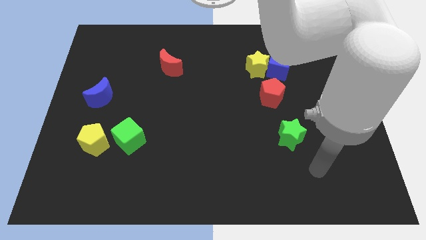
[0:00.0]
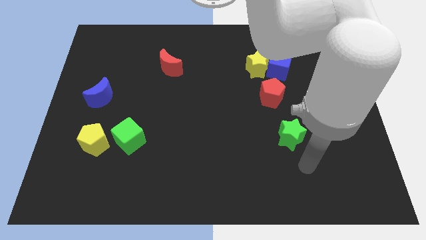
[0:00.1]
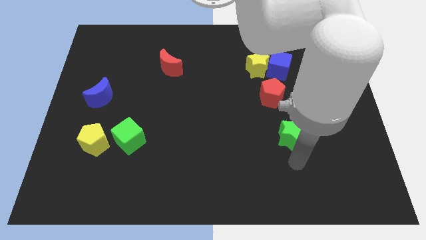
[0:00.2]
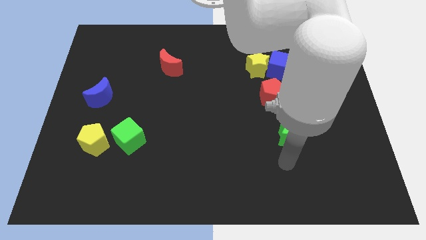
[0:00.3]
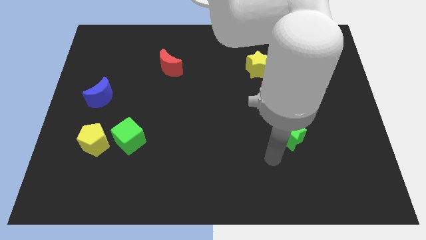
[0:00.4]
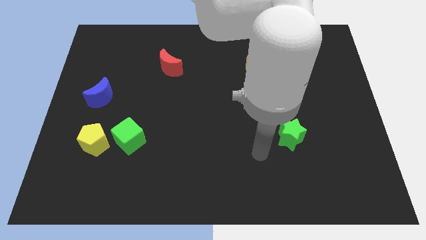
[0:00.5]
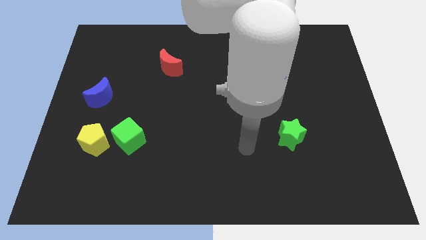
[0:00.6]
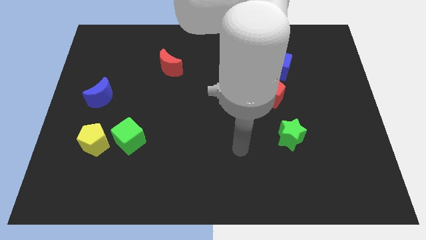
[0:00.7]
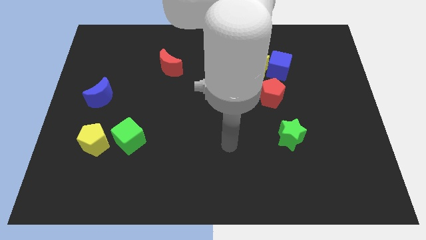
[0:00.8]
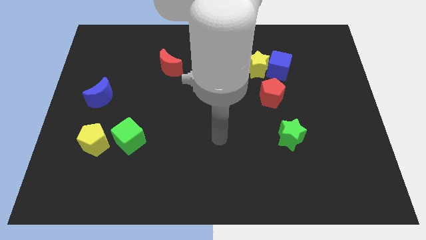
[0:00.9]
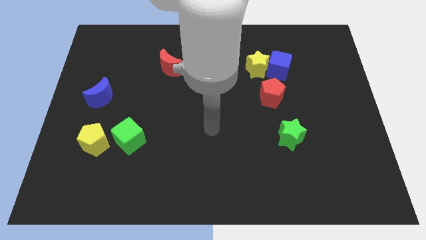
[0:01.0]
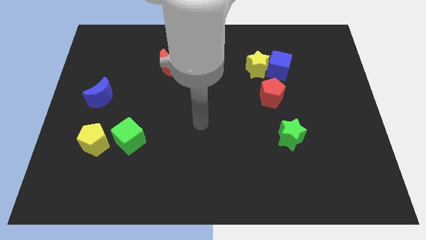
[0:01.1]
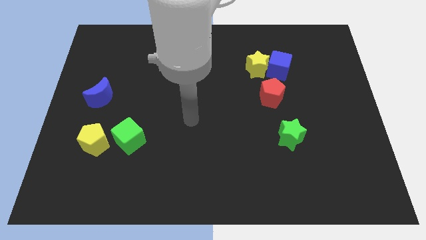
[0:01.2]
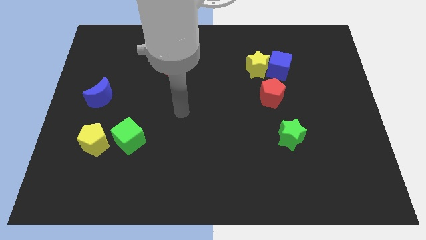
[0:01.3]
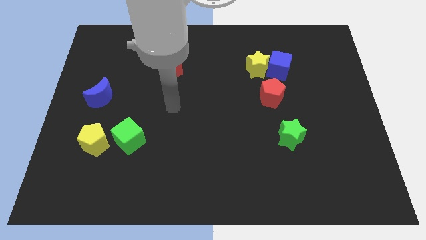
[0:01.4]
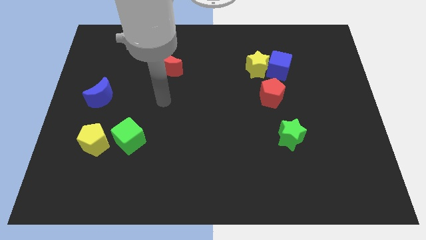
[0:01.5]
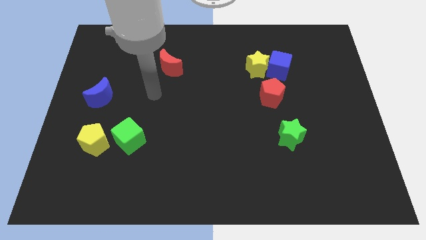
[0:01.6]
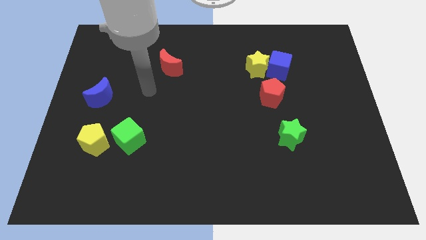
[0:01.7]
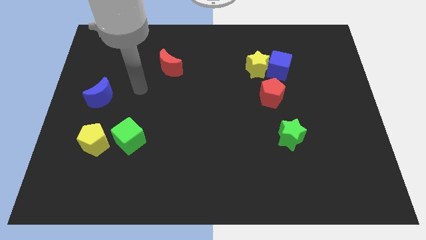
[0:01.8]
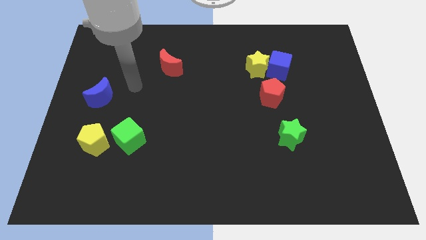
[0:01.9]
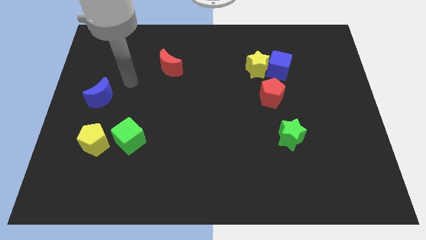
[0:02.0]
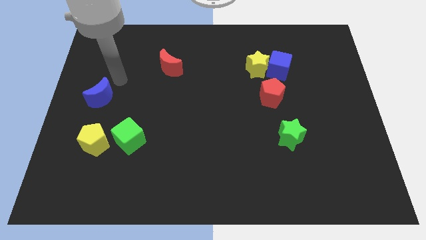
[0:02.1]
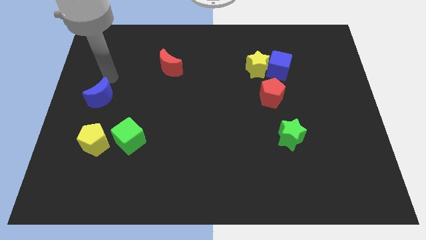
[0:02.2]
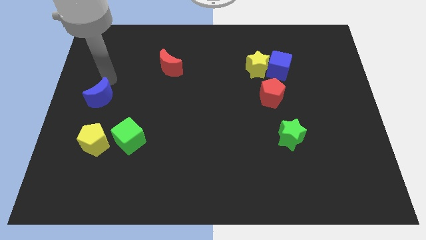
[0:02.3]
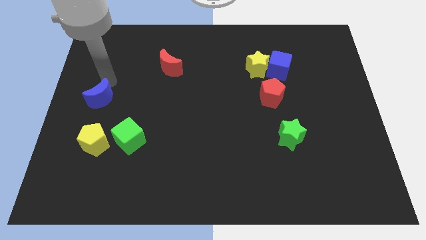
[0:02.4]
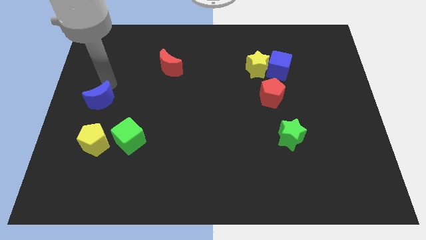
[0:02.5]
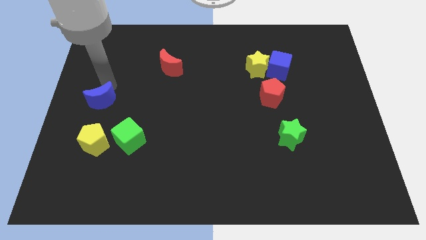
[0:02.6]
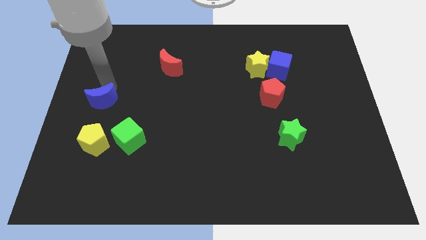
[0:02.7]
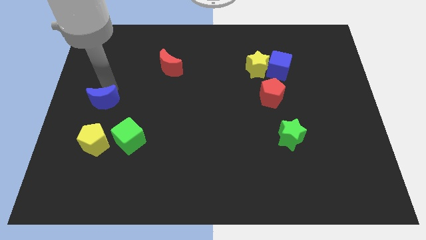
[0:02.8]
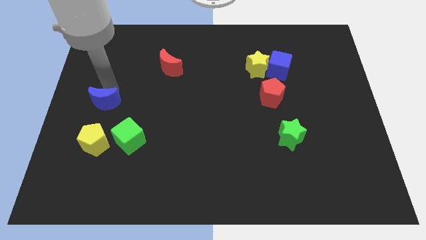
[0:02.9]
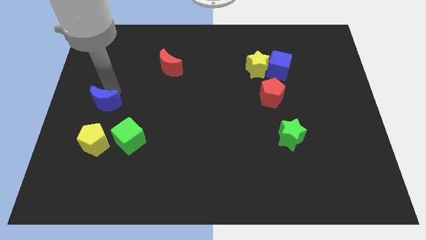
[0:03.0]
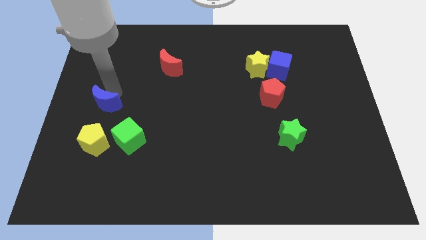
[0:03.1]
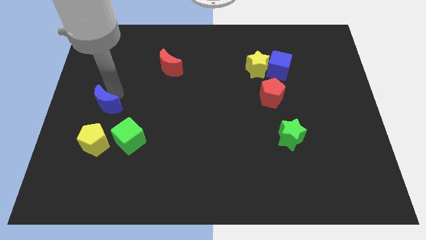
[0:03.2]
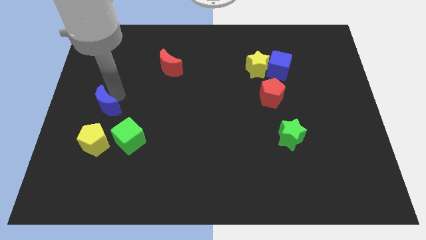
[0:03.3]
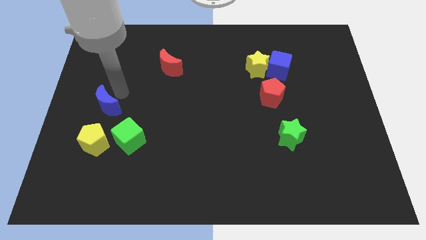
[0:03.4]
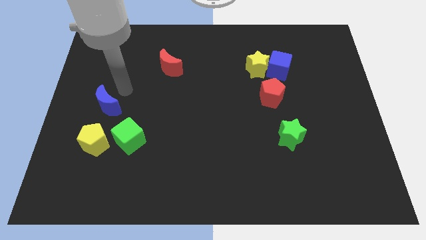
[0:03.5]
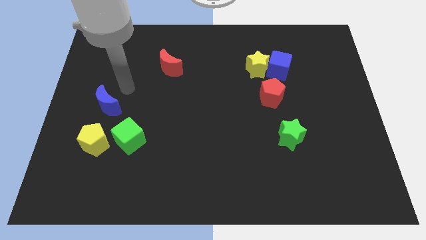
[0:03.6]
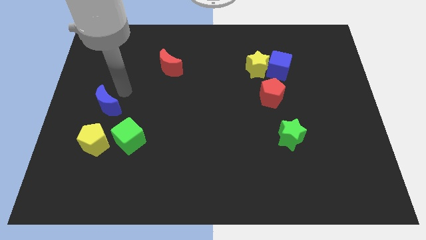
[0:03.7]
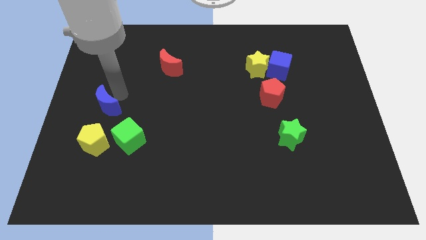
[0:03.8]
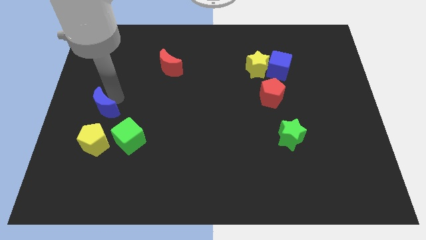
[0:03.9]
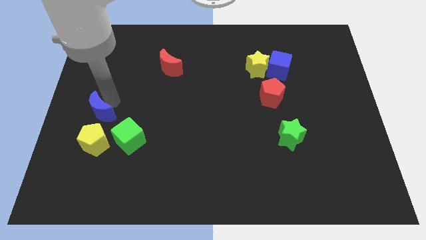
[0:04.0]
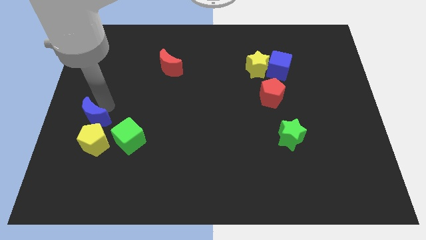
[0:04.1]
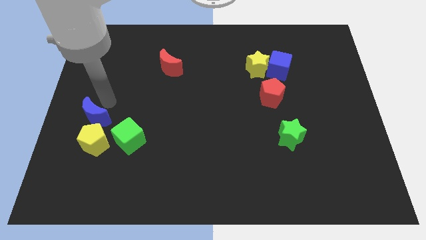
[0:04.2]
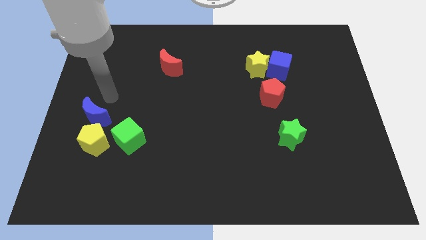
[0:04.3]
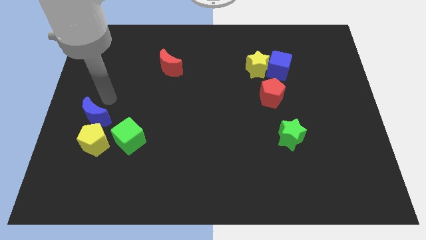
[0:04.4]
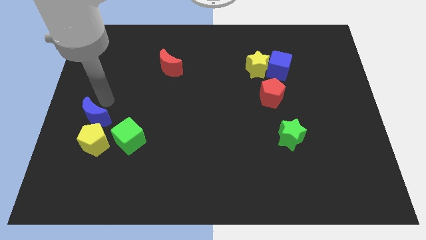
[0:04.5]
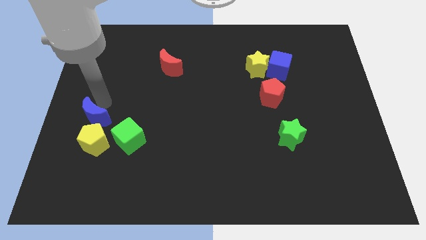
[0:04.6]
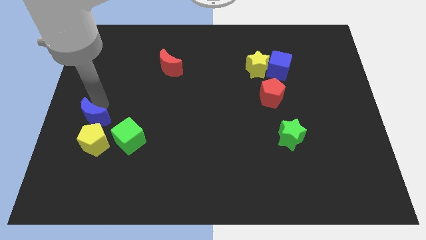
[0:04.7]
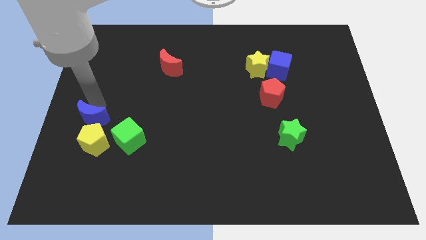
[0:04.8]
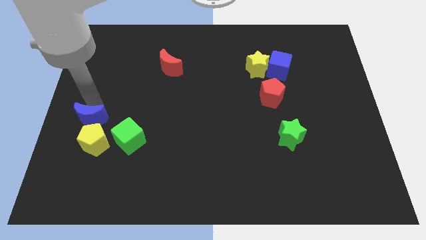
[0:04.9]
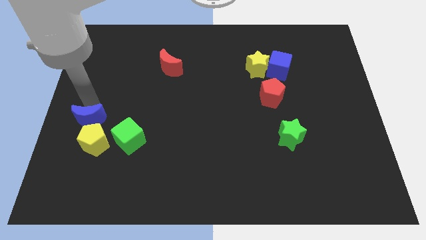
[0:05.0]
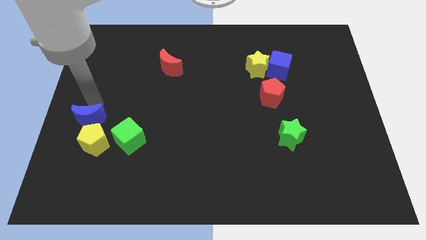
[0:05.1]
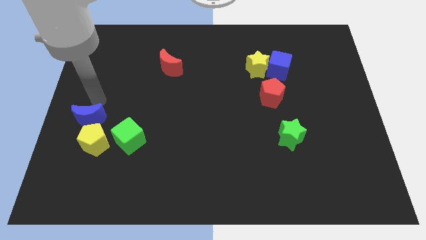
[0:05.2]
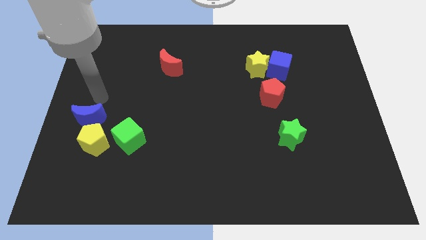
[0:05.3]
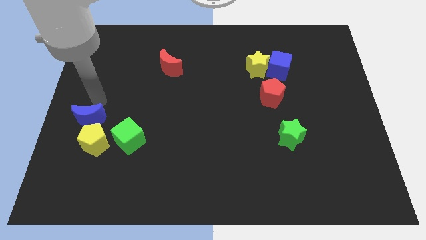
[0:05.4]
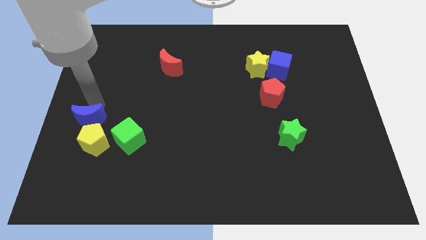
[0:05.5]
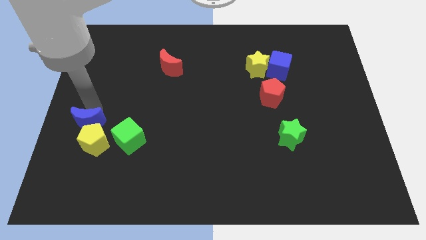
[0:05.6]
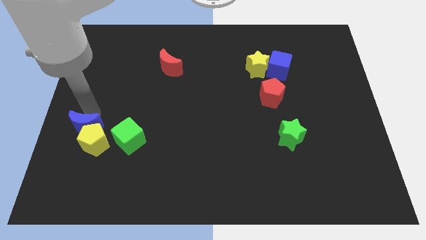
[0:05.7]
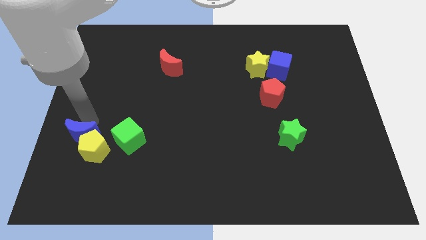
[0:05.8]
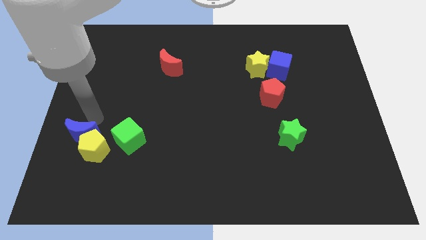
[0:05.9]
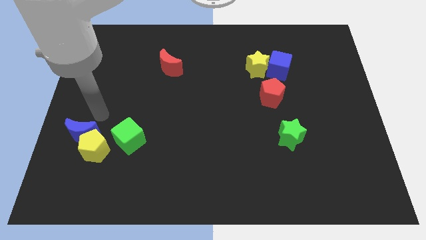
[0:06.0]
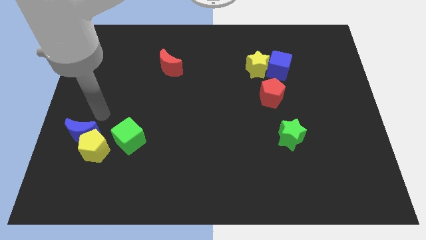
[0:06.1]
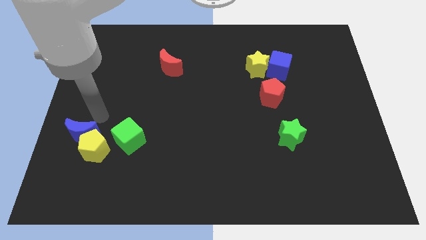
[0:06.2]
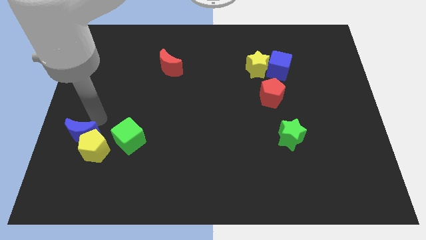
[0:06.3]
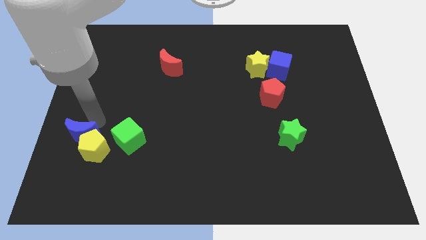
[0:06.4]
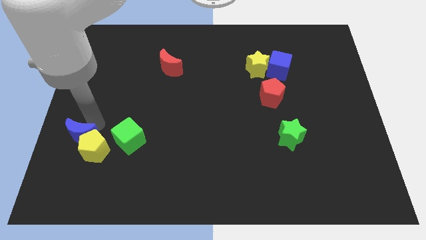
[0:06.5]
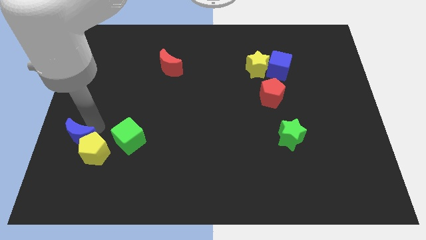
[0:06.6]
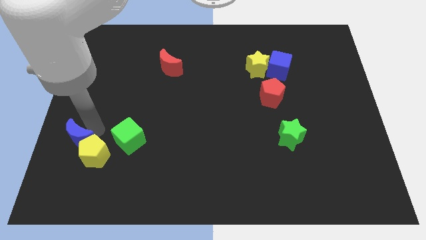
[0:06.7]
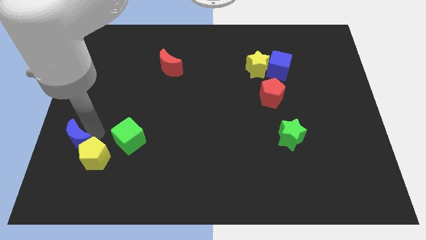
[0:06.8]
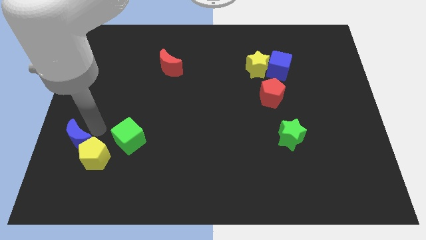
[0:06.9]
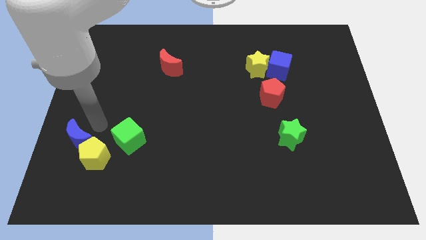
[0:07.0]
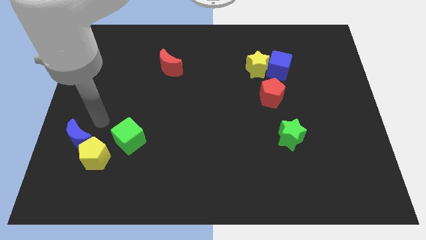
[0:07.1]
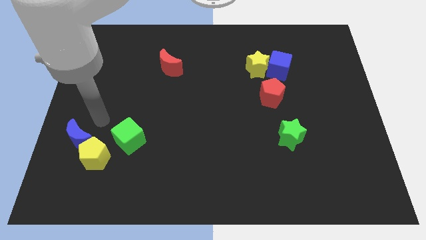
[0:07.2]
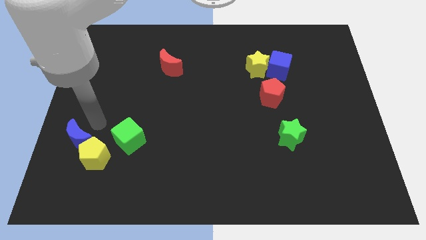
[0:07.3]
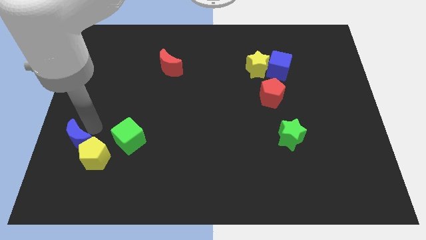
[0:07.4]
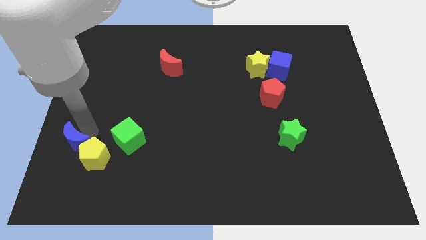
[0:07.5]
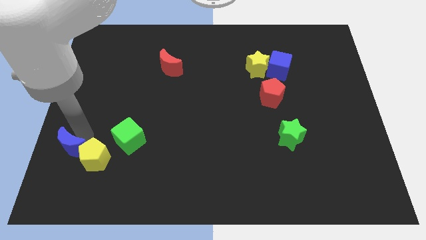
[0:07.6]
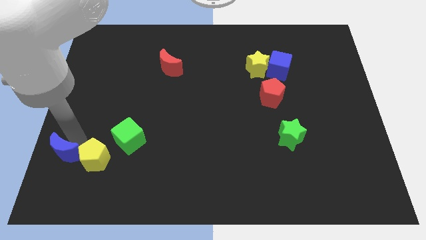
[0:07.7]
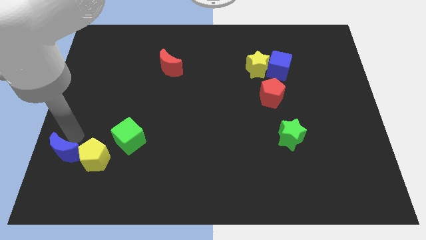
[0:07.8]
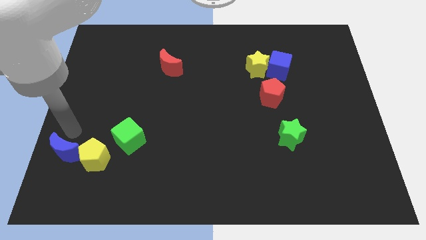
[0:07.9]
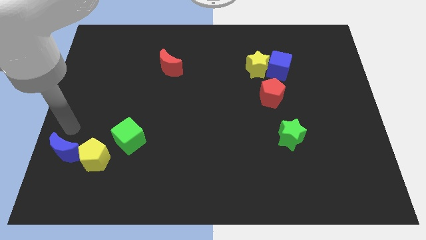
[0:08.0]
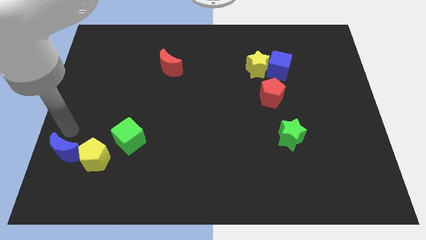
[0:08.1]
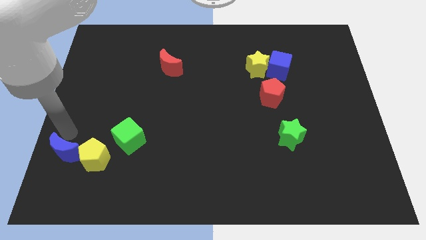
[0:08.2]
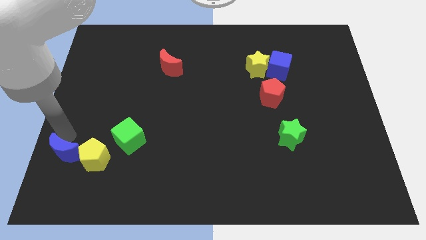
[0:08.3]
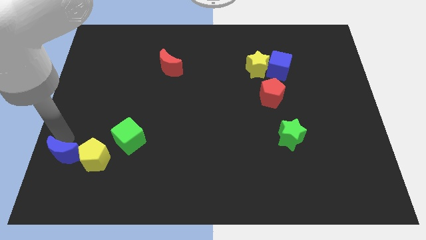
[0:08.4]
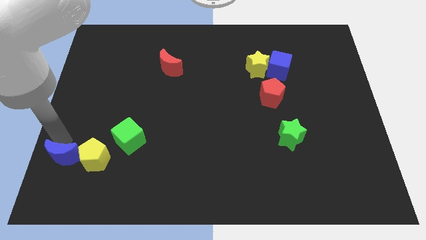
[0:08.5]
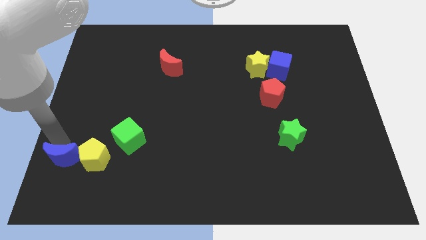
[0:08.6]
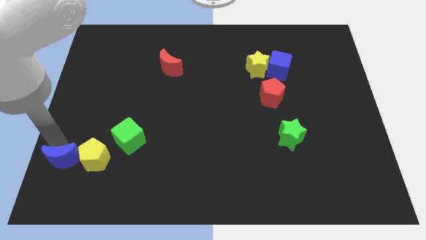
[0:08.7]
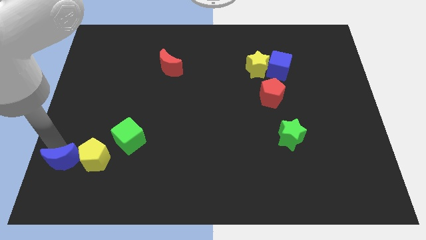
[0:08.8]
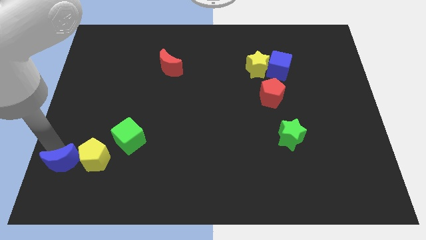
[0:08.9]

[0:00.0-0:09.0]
put the blue moon to the lower left corner
